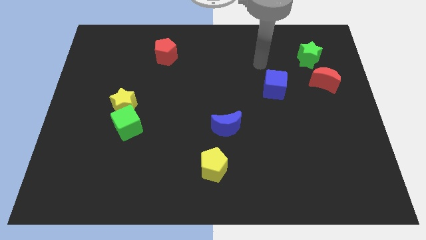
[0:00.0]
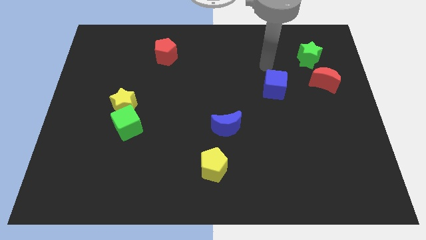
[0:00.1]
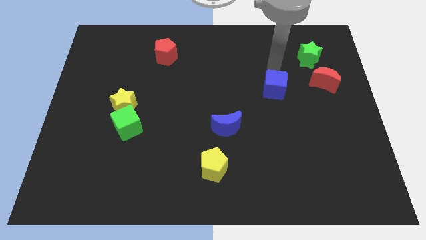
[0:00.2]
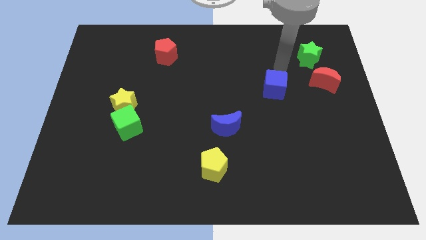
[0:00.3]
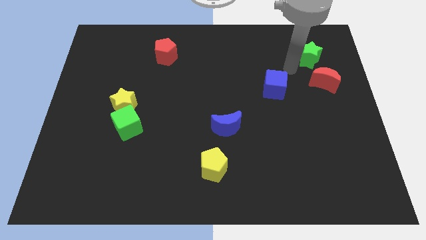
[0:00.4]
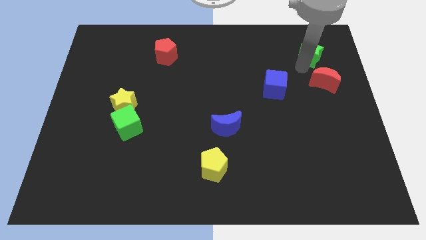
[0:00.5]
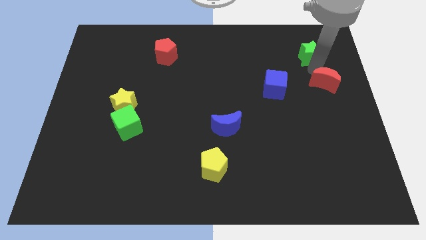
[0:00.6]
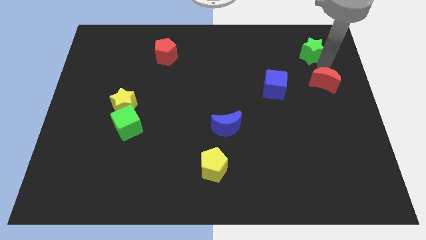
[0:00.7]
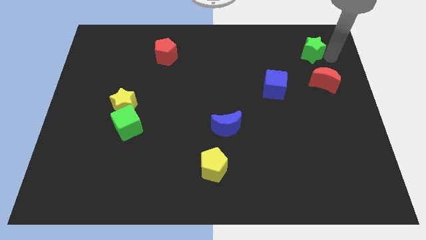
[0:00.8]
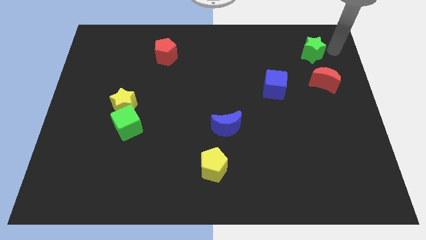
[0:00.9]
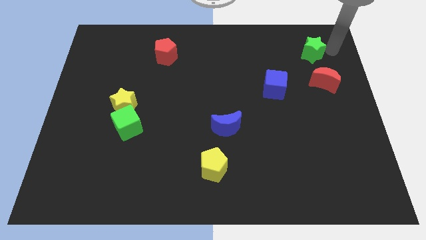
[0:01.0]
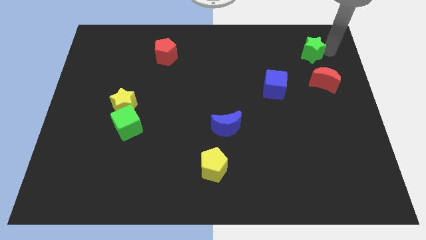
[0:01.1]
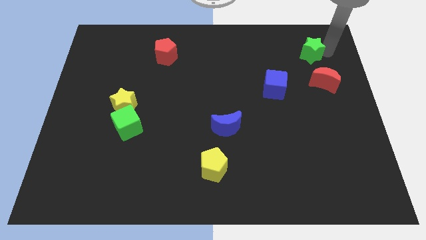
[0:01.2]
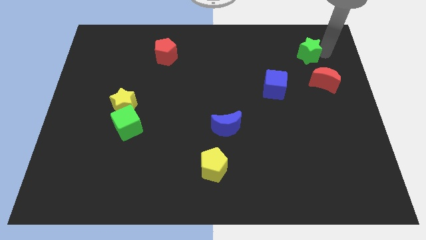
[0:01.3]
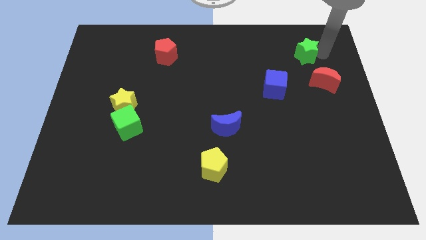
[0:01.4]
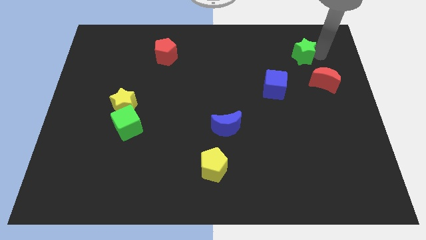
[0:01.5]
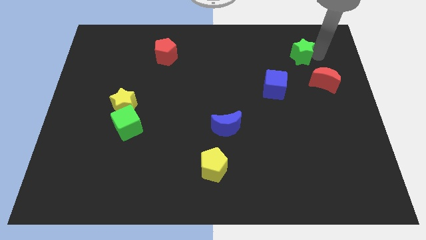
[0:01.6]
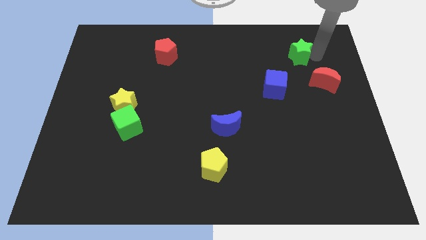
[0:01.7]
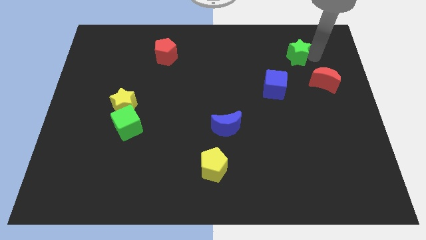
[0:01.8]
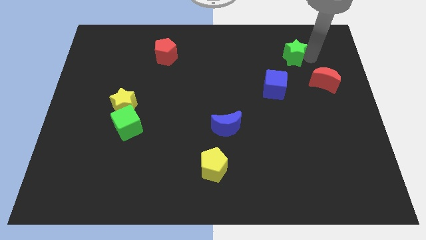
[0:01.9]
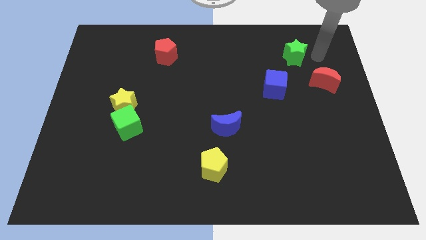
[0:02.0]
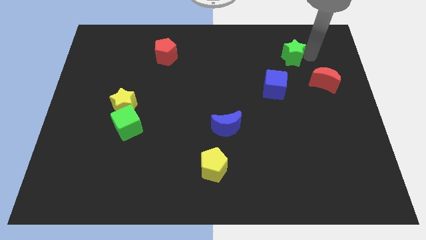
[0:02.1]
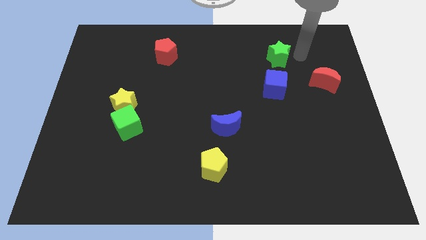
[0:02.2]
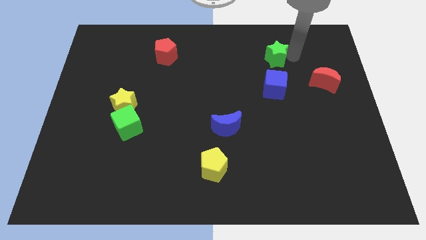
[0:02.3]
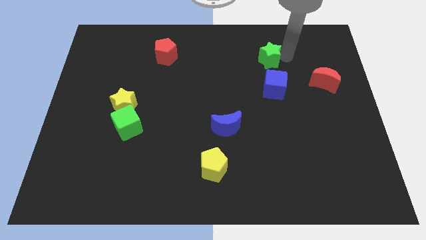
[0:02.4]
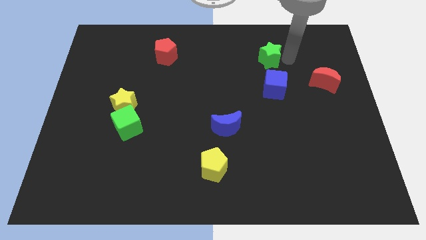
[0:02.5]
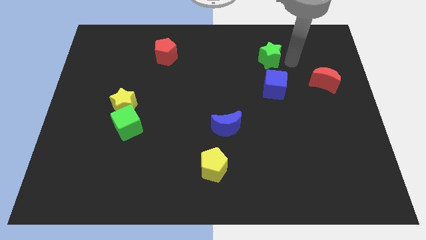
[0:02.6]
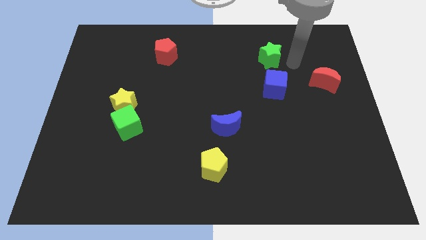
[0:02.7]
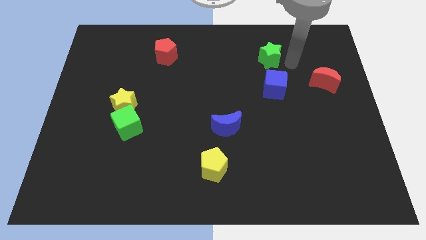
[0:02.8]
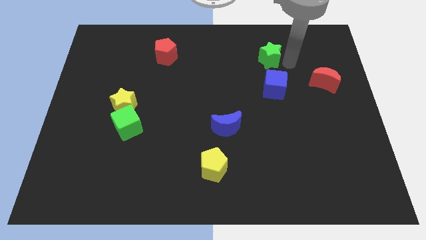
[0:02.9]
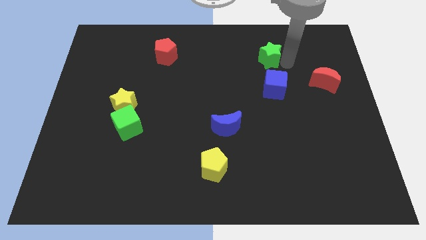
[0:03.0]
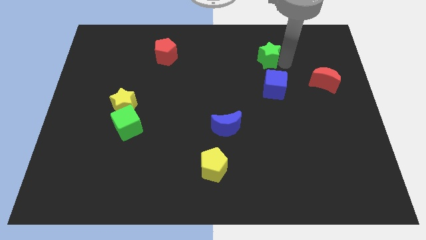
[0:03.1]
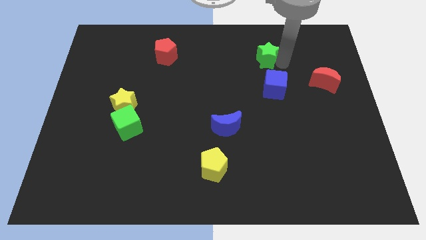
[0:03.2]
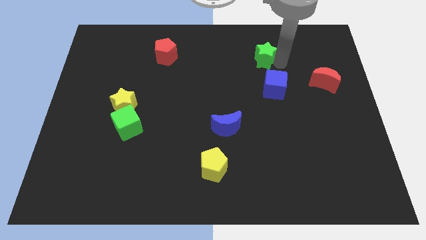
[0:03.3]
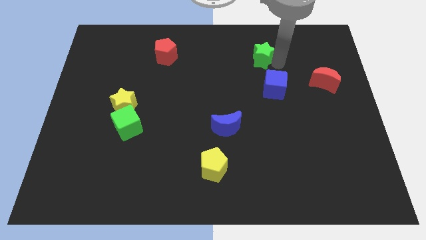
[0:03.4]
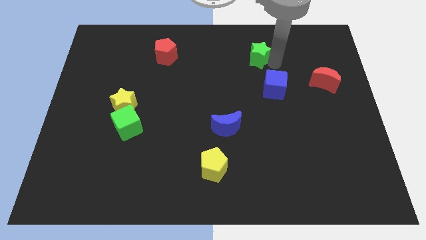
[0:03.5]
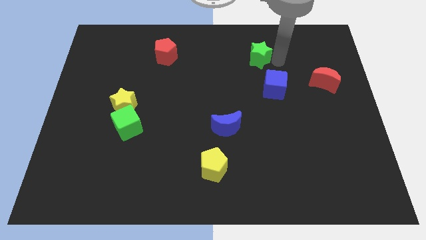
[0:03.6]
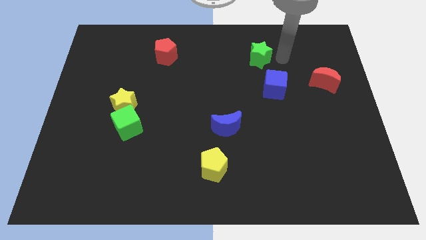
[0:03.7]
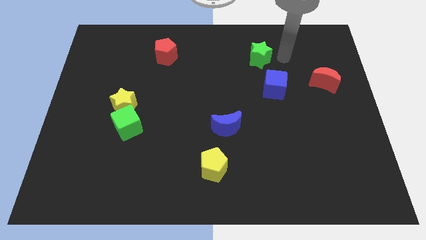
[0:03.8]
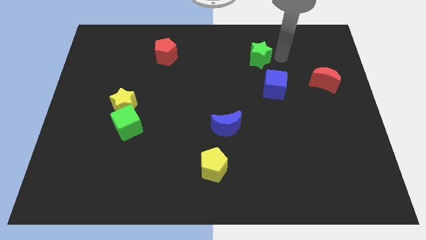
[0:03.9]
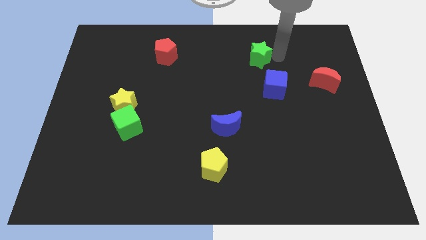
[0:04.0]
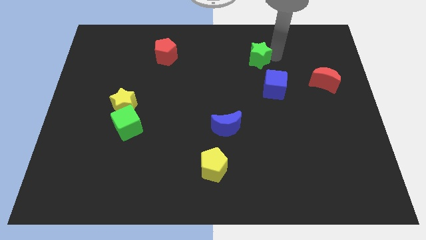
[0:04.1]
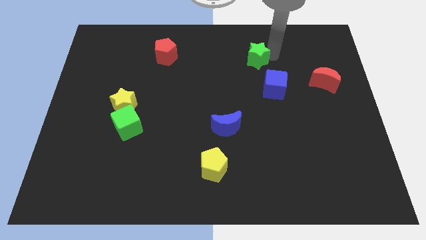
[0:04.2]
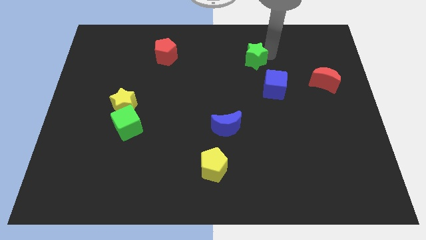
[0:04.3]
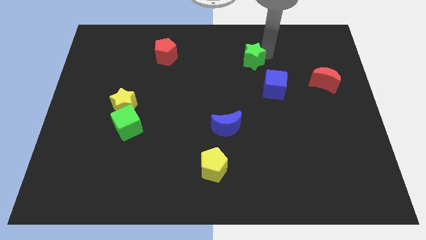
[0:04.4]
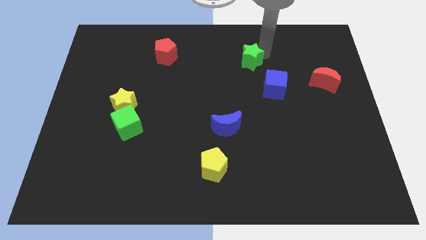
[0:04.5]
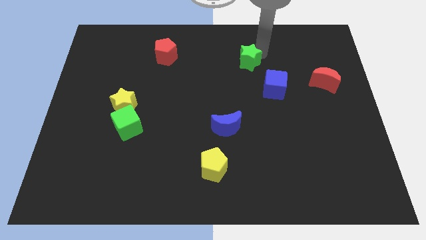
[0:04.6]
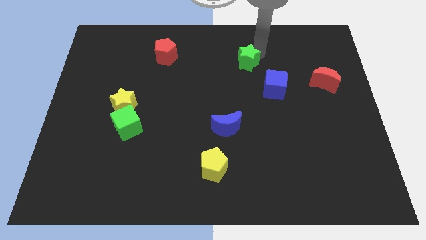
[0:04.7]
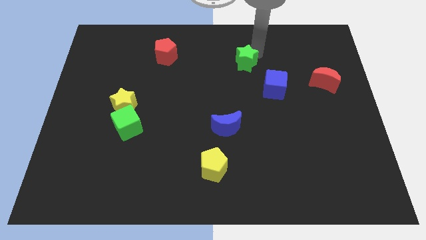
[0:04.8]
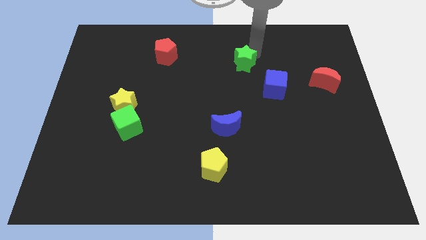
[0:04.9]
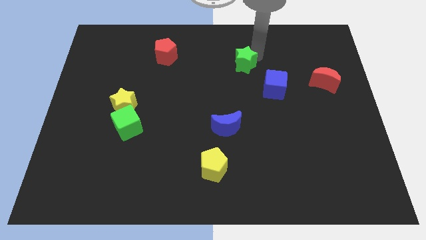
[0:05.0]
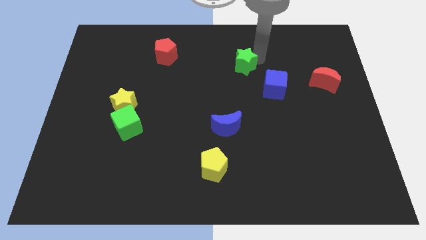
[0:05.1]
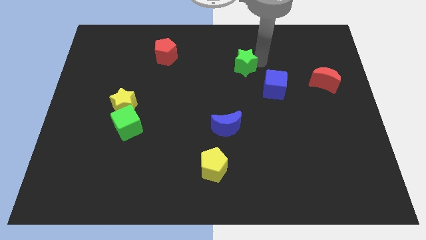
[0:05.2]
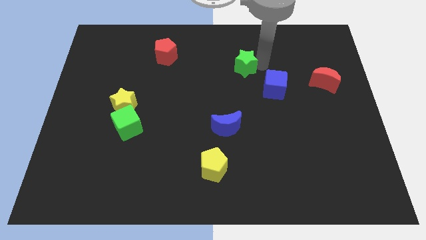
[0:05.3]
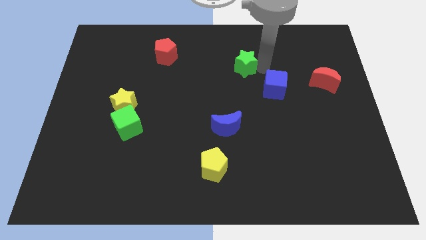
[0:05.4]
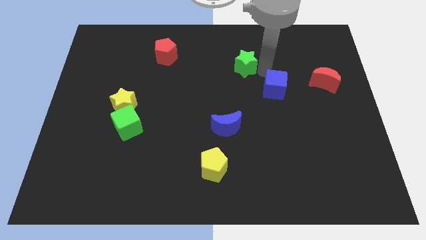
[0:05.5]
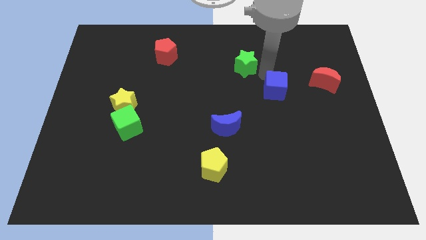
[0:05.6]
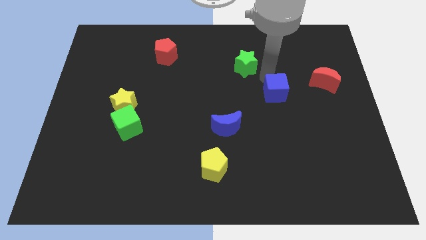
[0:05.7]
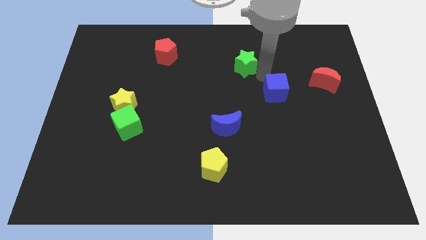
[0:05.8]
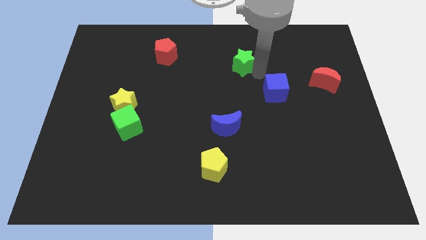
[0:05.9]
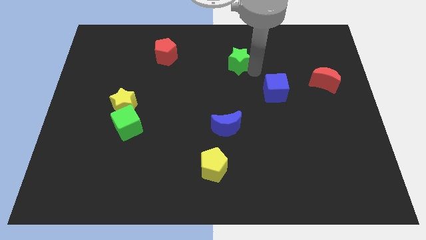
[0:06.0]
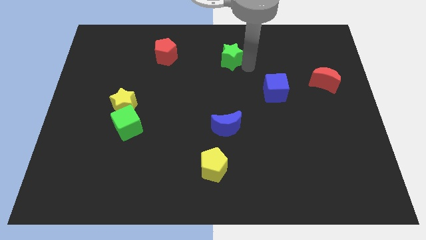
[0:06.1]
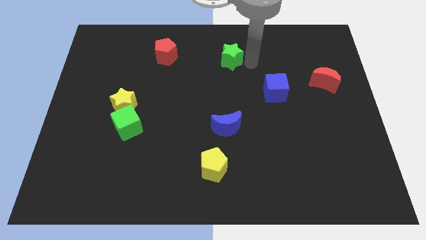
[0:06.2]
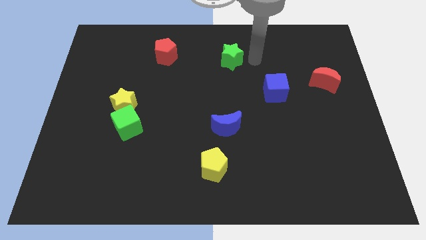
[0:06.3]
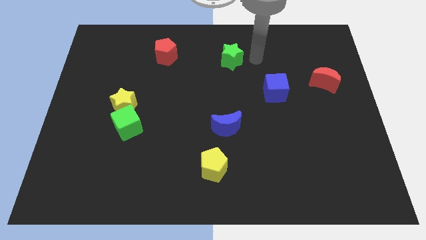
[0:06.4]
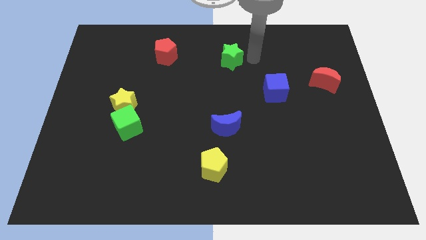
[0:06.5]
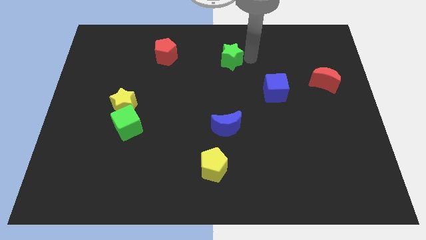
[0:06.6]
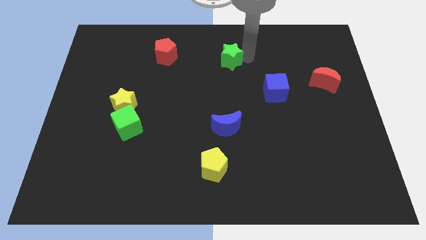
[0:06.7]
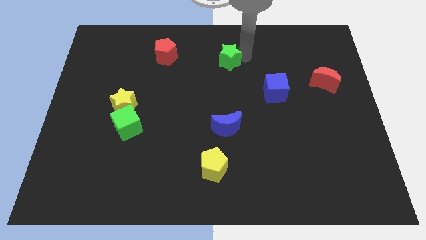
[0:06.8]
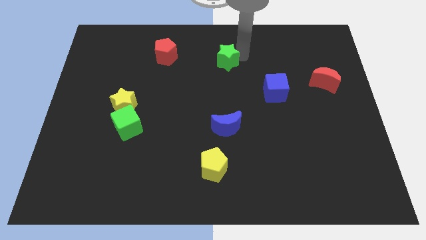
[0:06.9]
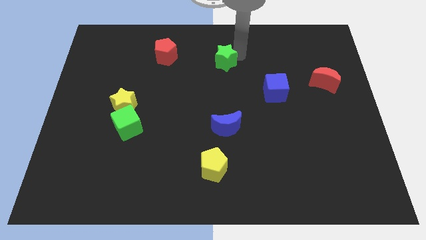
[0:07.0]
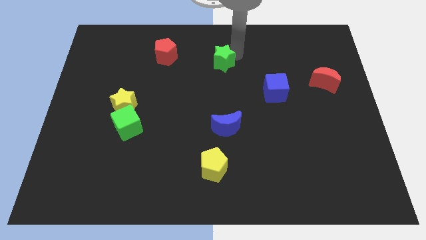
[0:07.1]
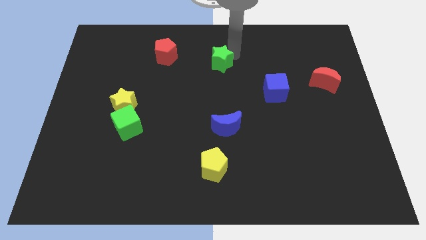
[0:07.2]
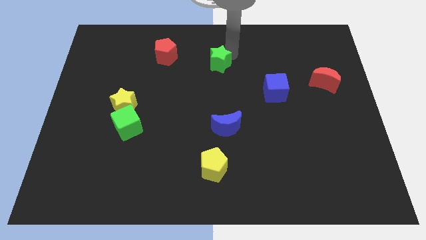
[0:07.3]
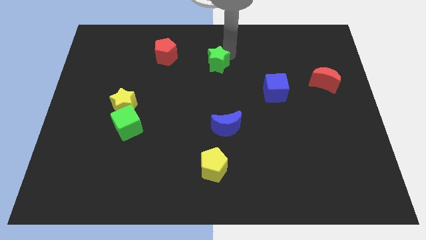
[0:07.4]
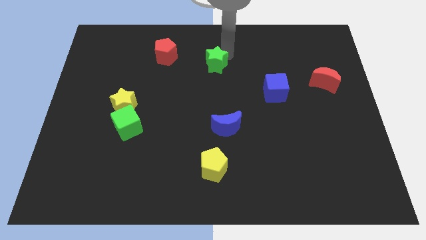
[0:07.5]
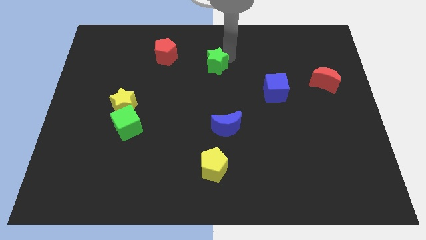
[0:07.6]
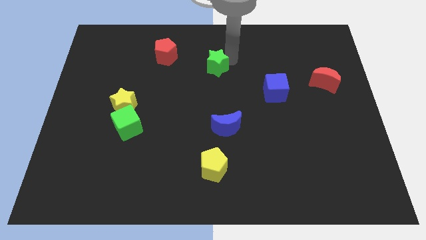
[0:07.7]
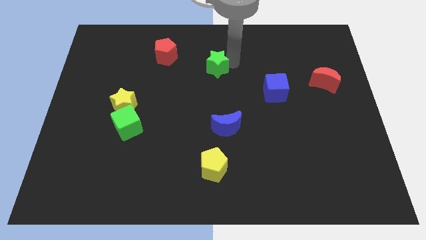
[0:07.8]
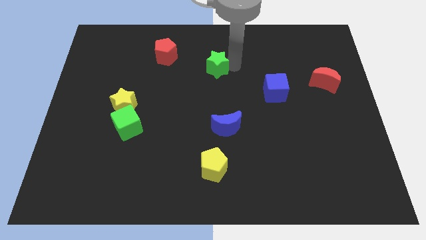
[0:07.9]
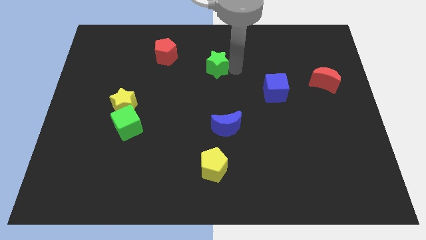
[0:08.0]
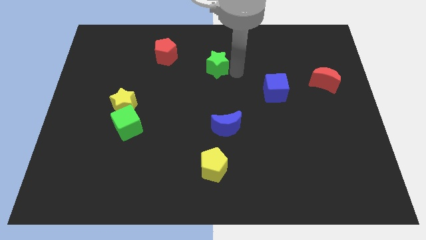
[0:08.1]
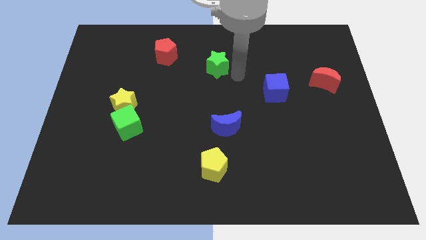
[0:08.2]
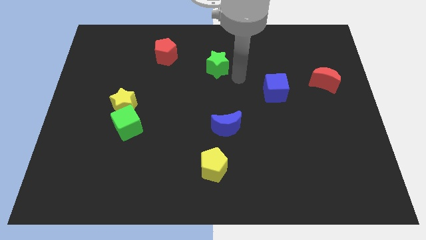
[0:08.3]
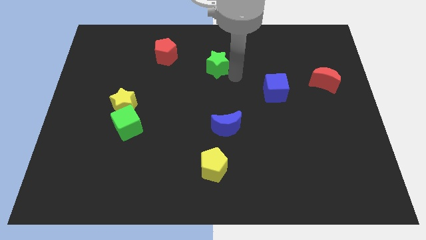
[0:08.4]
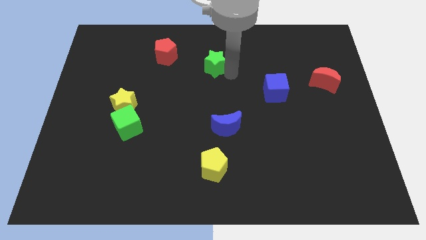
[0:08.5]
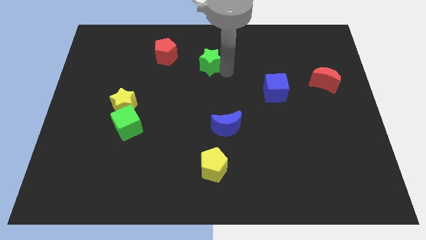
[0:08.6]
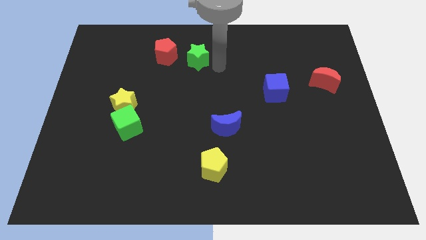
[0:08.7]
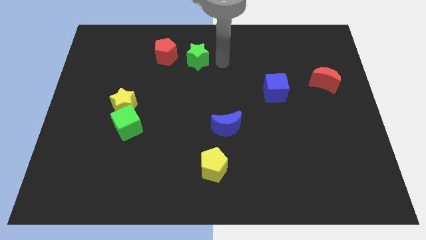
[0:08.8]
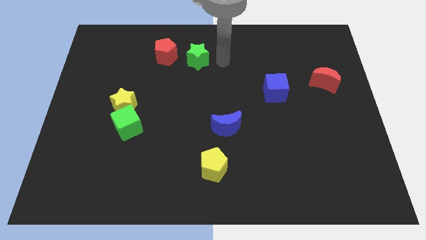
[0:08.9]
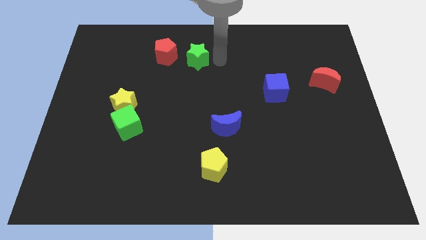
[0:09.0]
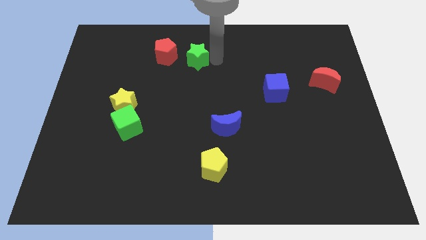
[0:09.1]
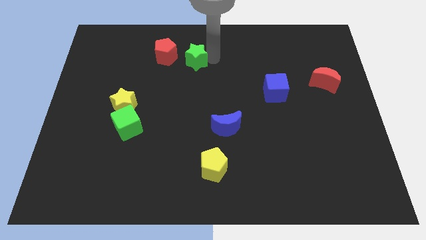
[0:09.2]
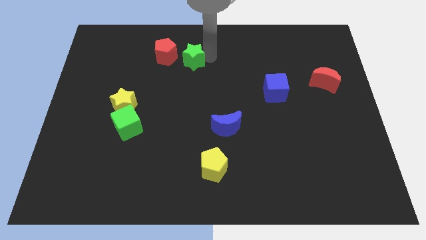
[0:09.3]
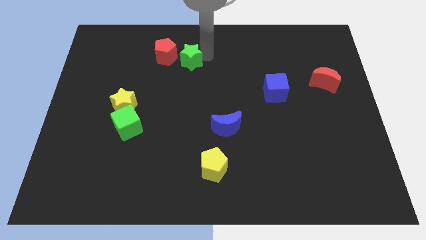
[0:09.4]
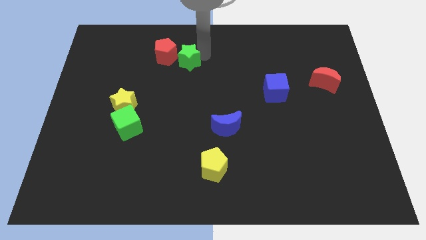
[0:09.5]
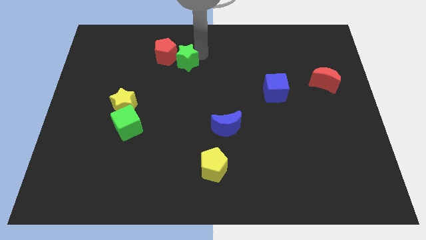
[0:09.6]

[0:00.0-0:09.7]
push the green star close to the red pentagon
